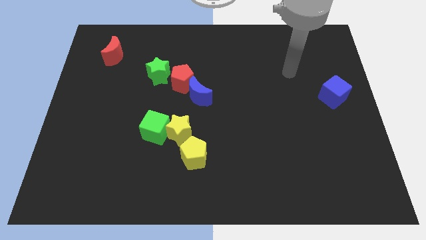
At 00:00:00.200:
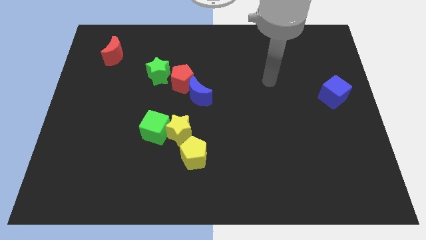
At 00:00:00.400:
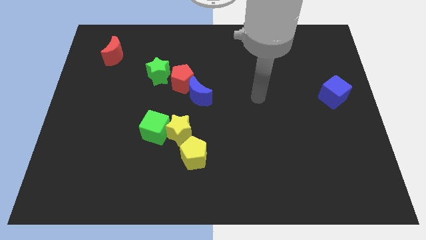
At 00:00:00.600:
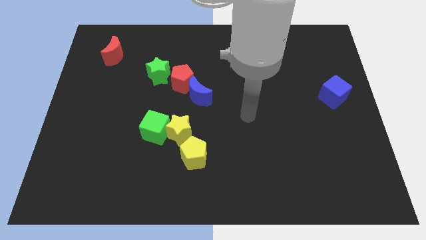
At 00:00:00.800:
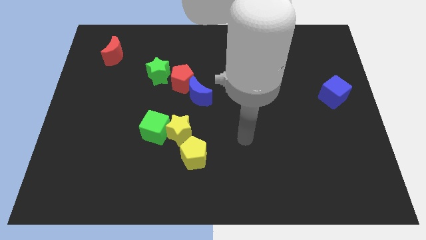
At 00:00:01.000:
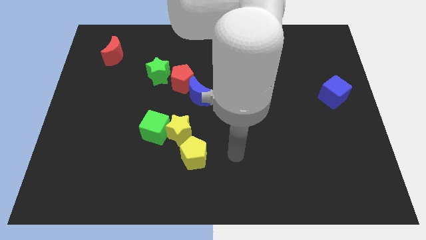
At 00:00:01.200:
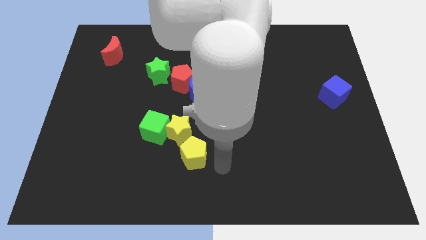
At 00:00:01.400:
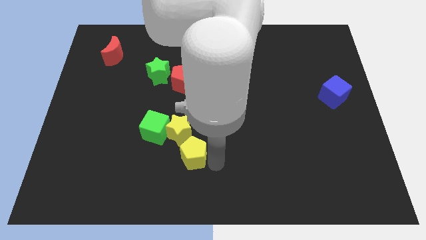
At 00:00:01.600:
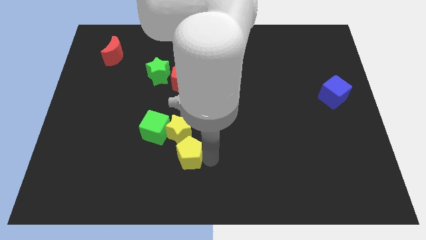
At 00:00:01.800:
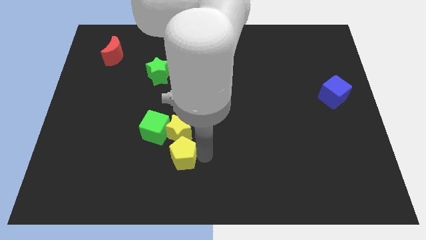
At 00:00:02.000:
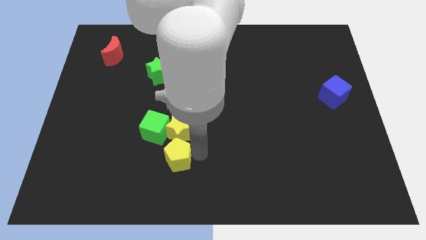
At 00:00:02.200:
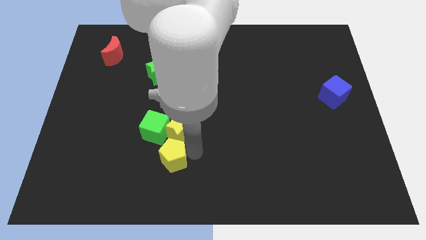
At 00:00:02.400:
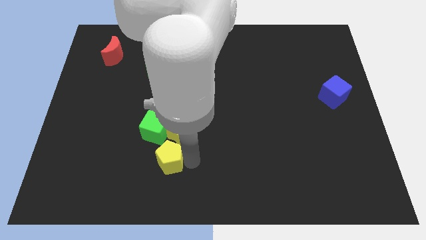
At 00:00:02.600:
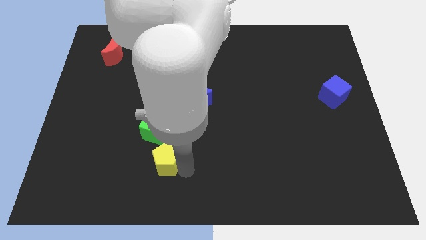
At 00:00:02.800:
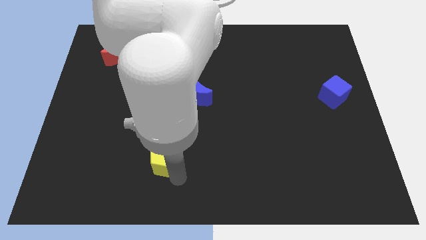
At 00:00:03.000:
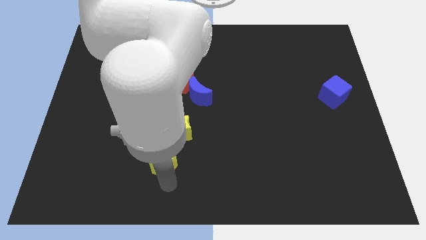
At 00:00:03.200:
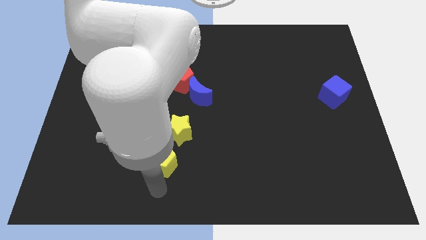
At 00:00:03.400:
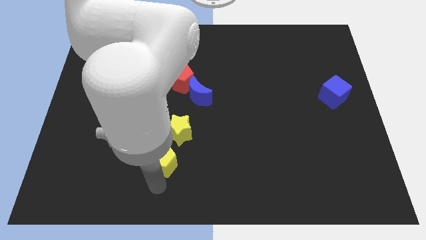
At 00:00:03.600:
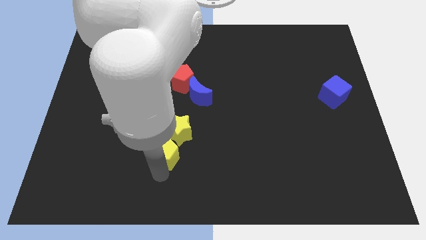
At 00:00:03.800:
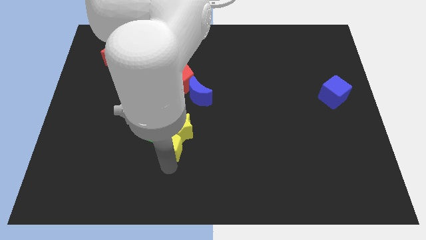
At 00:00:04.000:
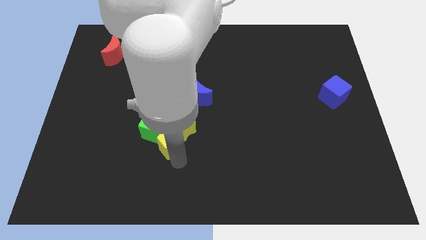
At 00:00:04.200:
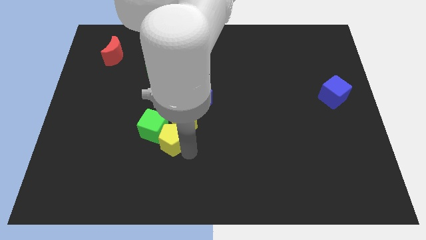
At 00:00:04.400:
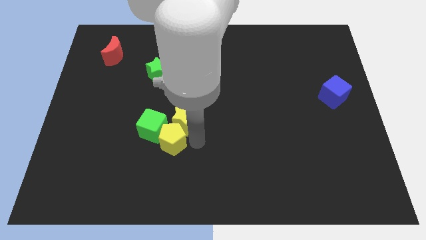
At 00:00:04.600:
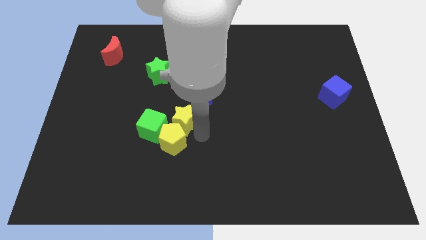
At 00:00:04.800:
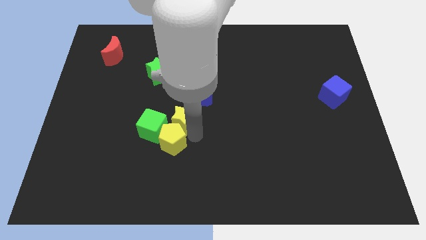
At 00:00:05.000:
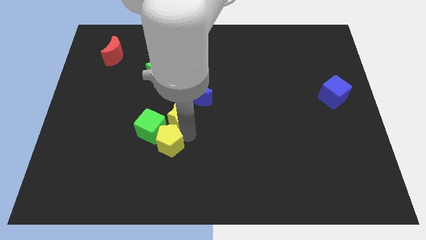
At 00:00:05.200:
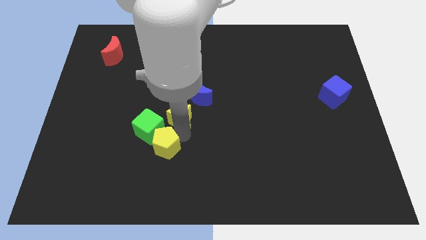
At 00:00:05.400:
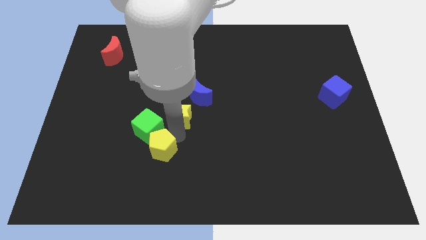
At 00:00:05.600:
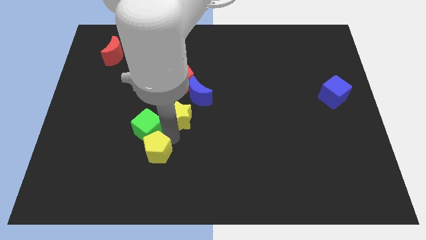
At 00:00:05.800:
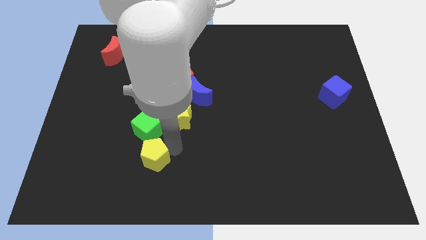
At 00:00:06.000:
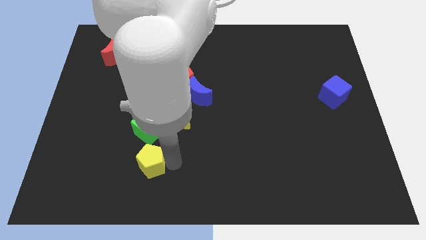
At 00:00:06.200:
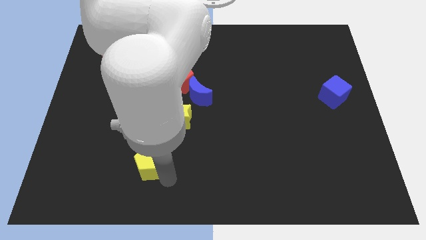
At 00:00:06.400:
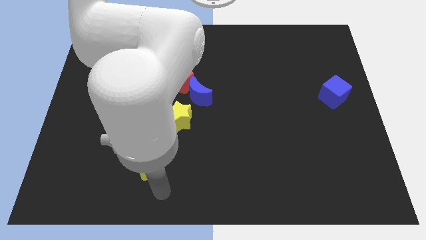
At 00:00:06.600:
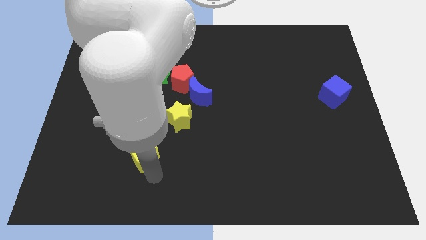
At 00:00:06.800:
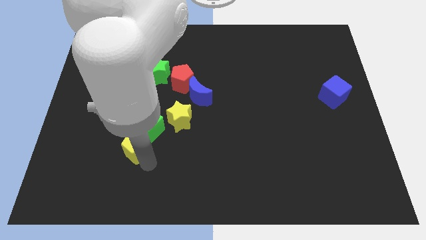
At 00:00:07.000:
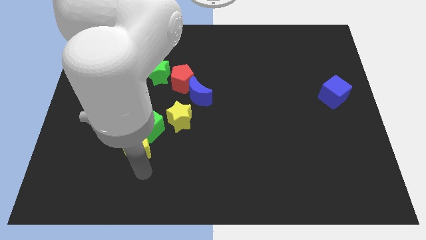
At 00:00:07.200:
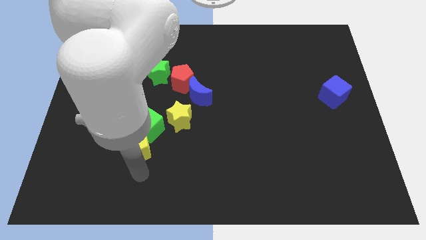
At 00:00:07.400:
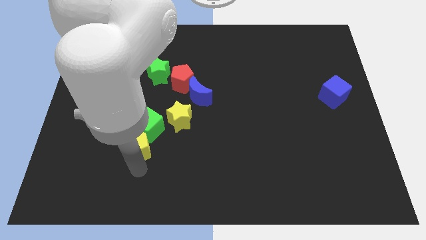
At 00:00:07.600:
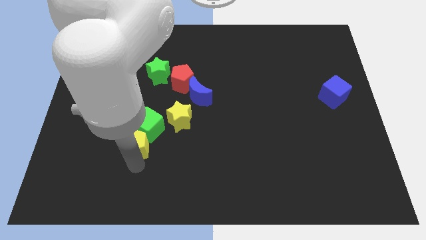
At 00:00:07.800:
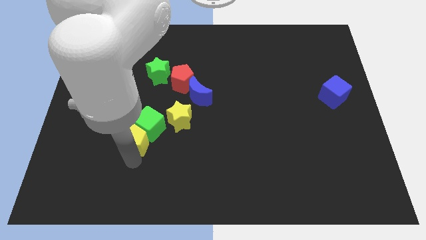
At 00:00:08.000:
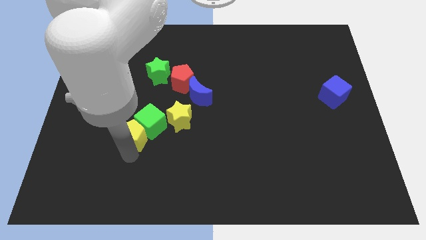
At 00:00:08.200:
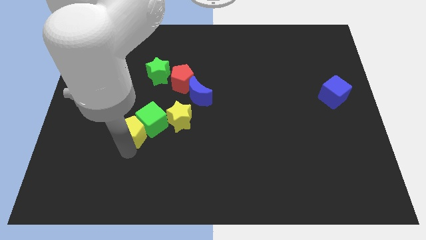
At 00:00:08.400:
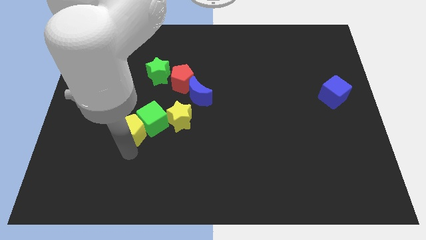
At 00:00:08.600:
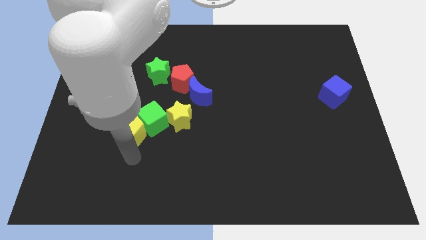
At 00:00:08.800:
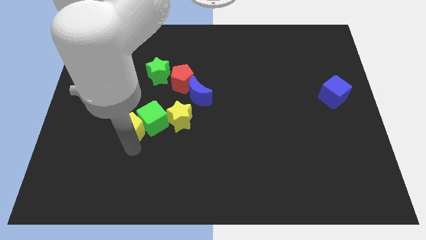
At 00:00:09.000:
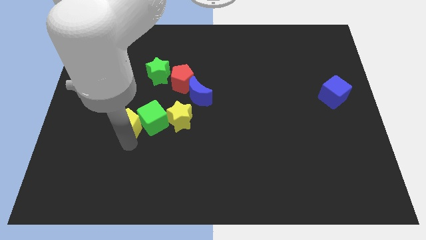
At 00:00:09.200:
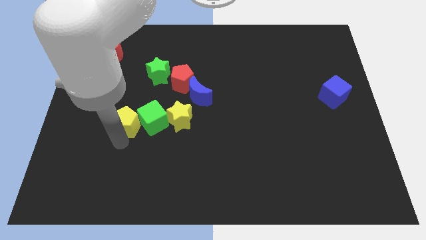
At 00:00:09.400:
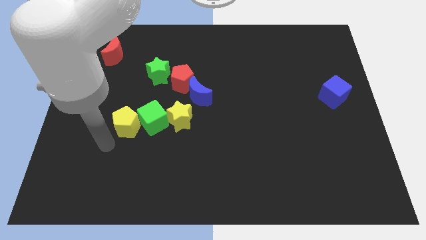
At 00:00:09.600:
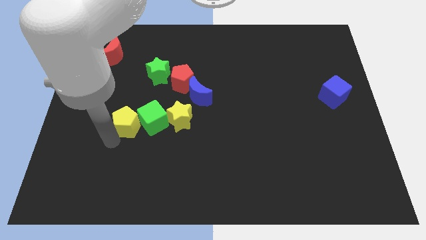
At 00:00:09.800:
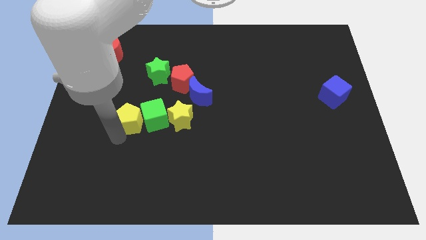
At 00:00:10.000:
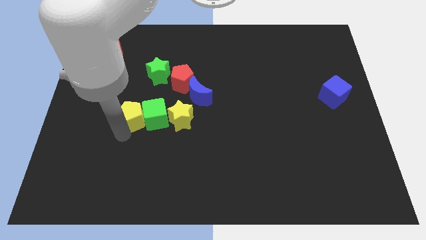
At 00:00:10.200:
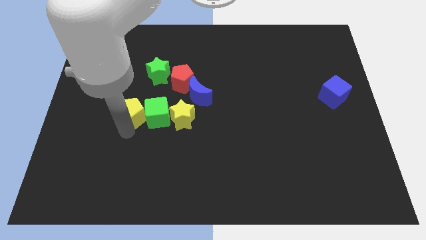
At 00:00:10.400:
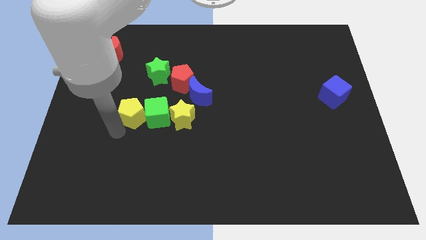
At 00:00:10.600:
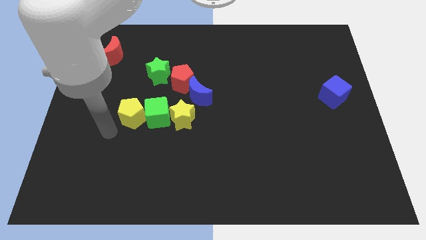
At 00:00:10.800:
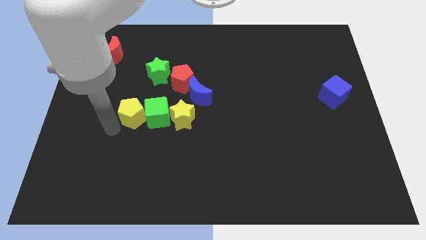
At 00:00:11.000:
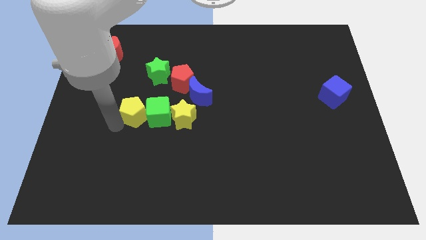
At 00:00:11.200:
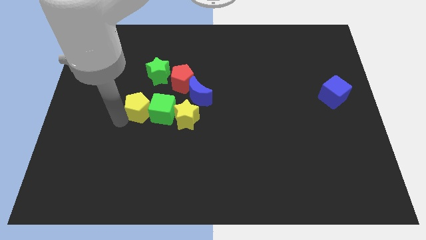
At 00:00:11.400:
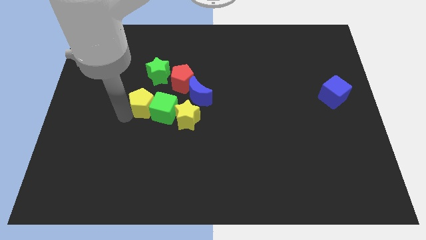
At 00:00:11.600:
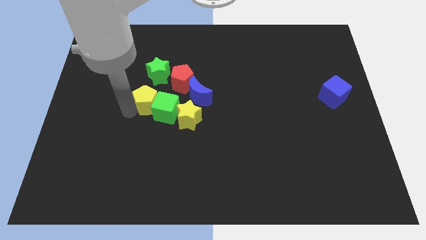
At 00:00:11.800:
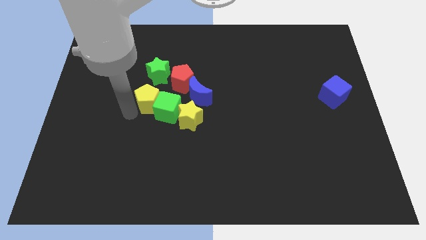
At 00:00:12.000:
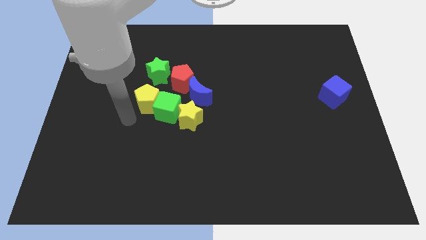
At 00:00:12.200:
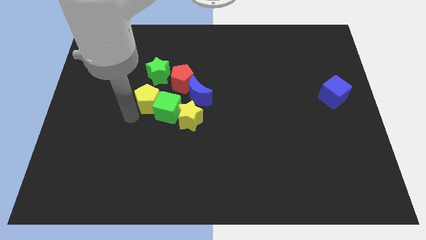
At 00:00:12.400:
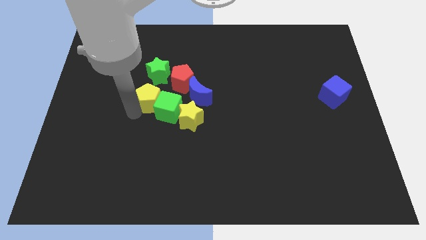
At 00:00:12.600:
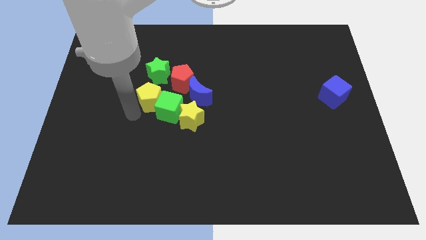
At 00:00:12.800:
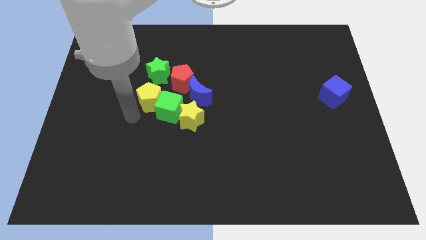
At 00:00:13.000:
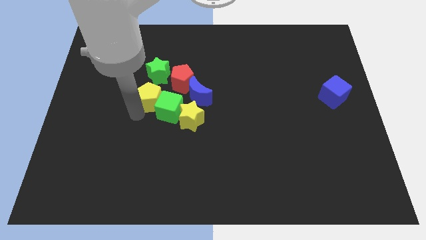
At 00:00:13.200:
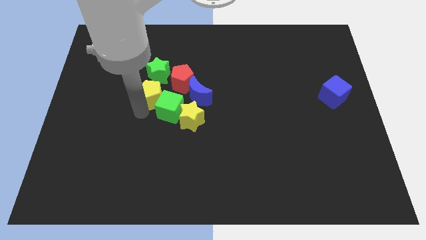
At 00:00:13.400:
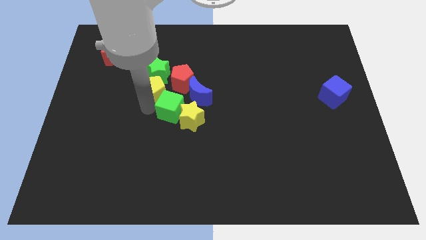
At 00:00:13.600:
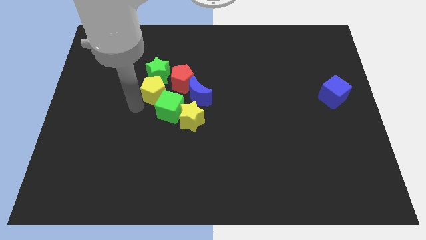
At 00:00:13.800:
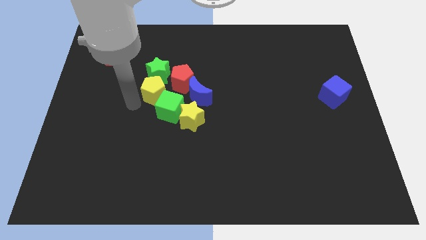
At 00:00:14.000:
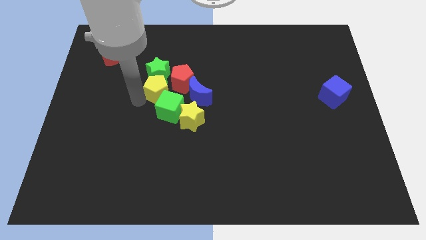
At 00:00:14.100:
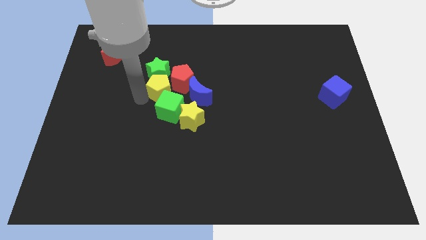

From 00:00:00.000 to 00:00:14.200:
put the yellow pentagon towards the red pentagon
